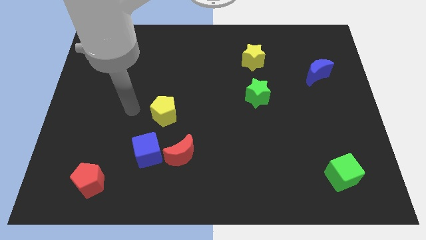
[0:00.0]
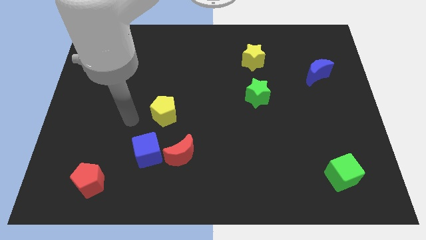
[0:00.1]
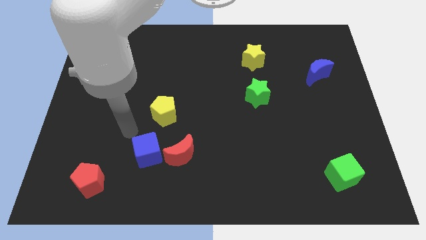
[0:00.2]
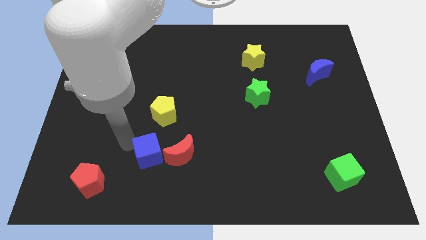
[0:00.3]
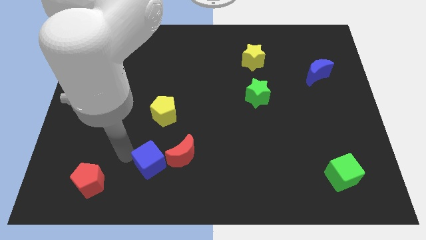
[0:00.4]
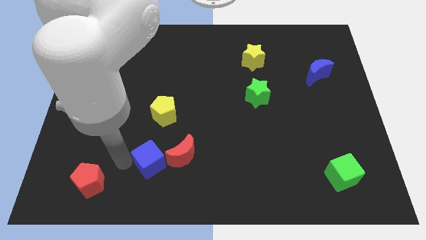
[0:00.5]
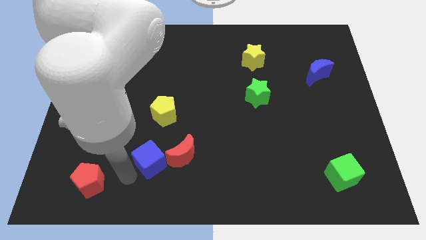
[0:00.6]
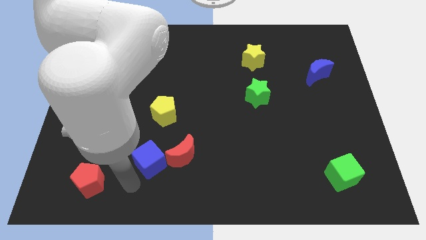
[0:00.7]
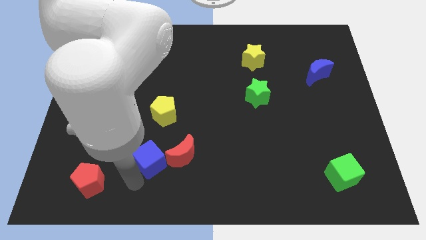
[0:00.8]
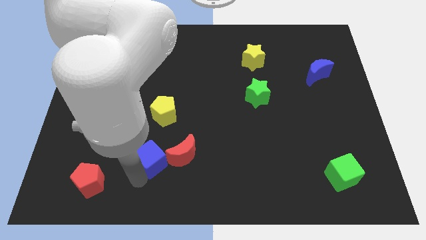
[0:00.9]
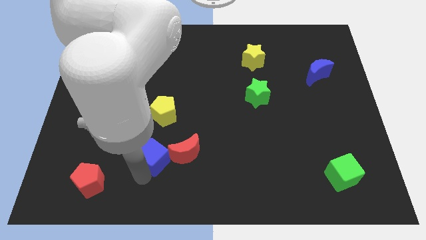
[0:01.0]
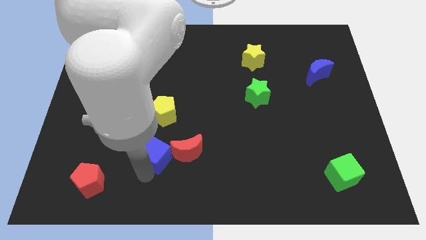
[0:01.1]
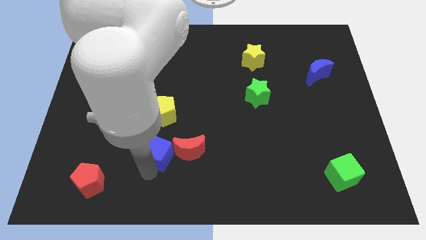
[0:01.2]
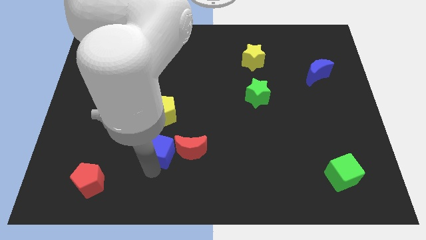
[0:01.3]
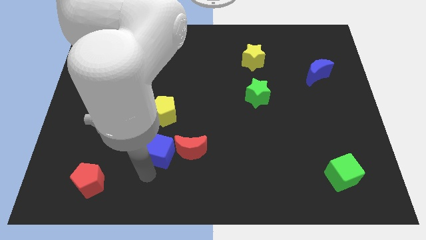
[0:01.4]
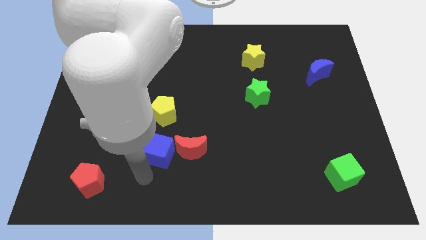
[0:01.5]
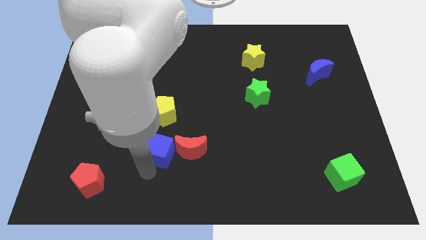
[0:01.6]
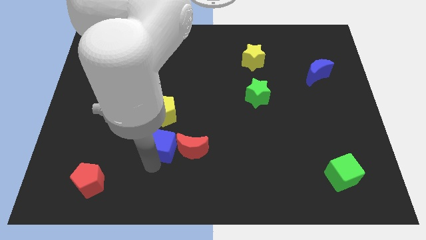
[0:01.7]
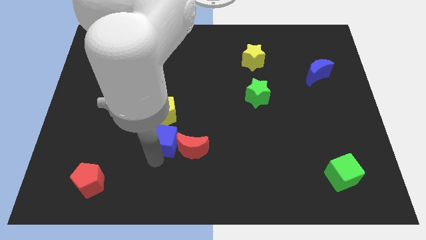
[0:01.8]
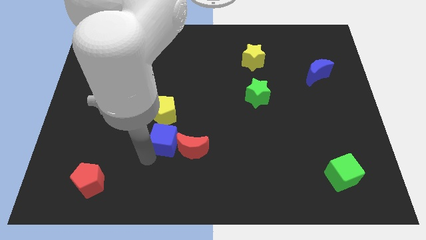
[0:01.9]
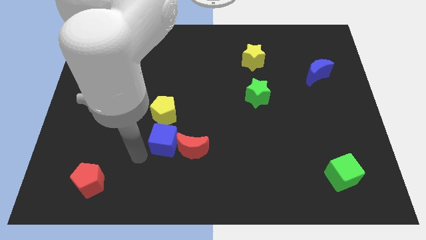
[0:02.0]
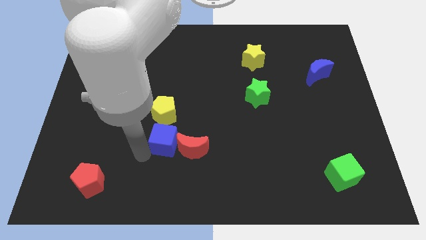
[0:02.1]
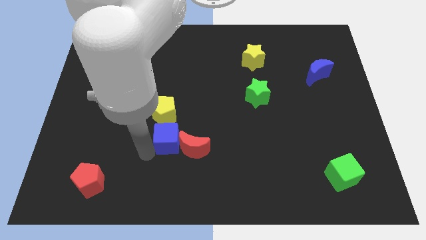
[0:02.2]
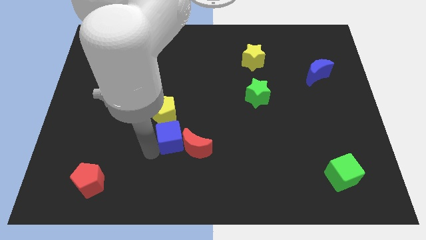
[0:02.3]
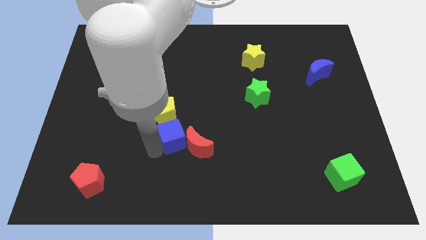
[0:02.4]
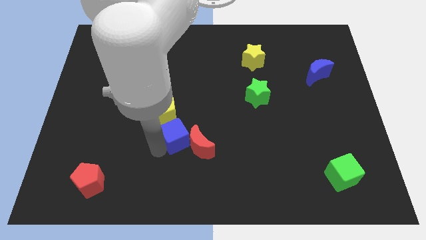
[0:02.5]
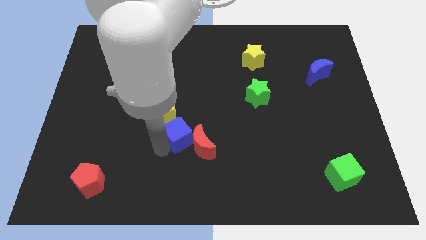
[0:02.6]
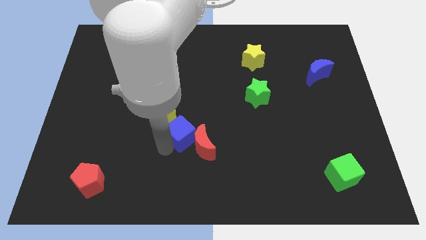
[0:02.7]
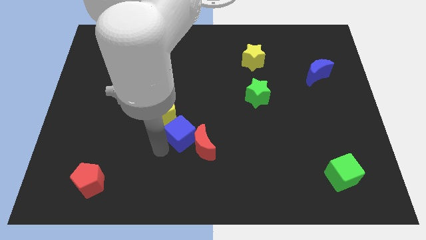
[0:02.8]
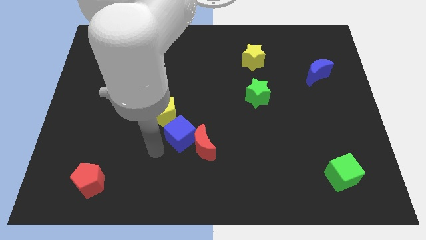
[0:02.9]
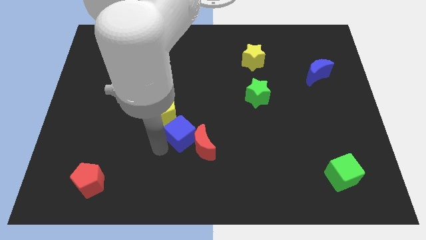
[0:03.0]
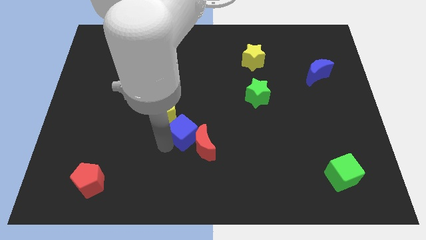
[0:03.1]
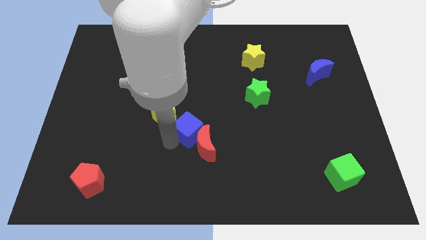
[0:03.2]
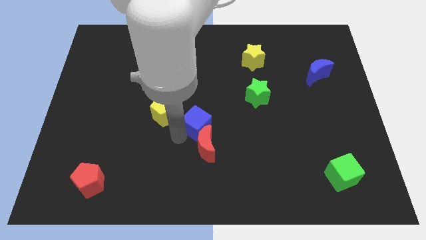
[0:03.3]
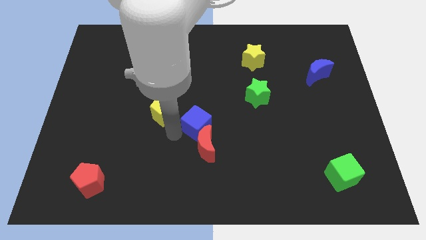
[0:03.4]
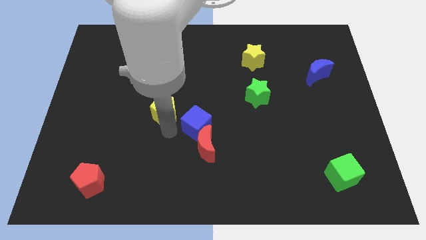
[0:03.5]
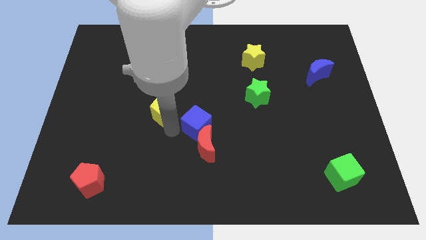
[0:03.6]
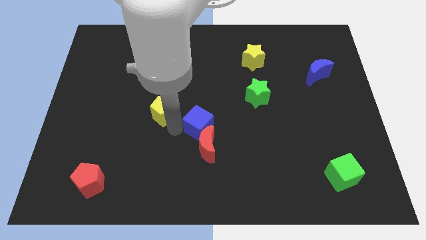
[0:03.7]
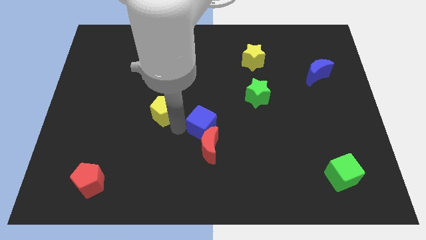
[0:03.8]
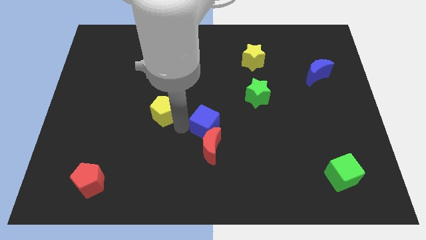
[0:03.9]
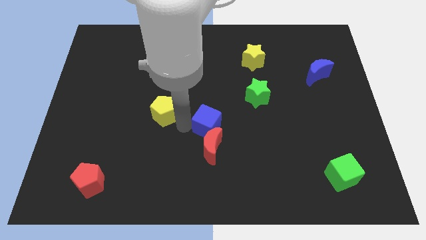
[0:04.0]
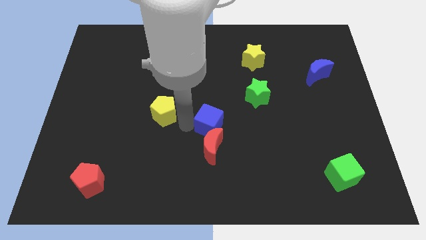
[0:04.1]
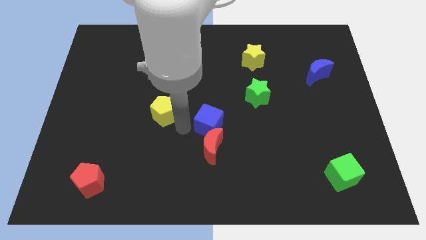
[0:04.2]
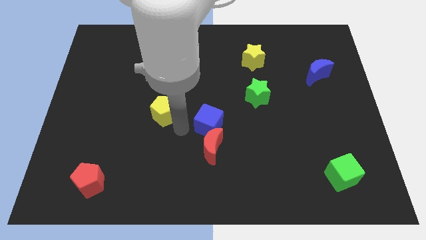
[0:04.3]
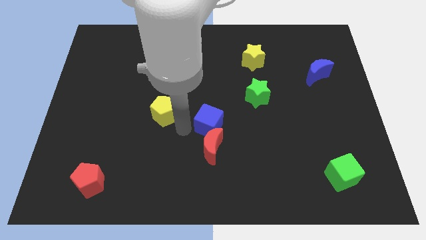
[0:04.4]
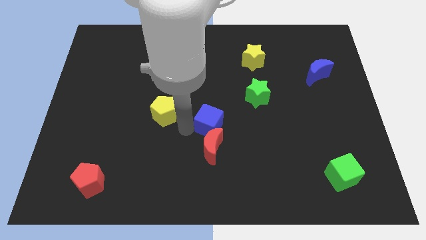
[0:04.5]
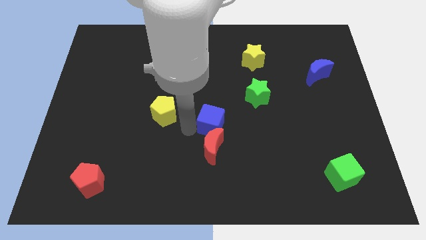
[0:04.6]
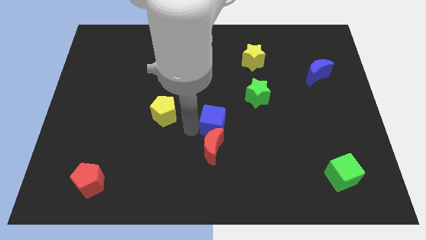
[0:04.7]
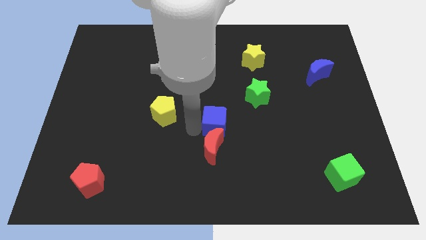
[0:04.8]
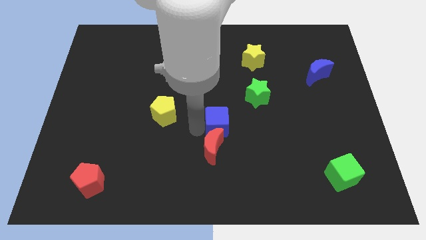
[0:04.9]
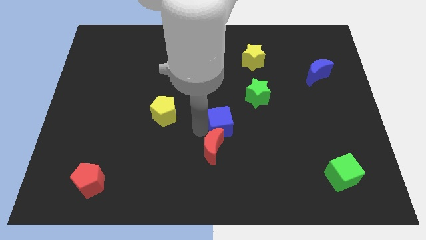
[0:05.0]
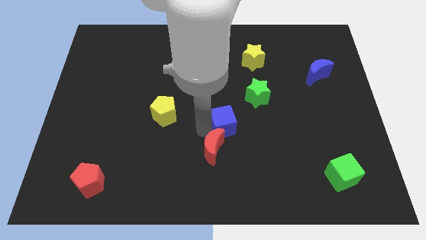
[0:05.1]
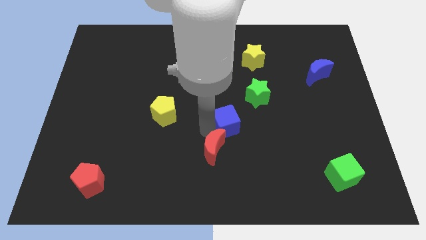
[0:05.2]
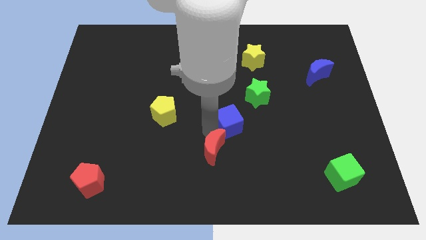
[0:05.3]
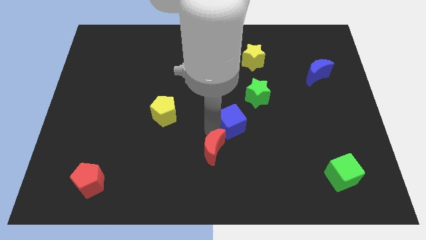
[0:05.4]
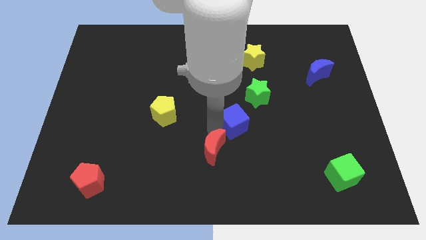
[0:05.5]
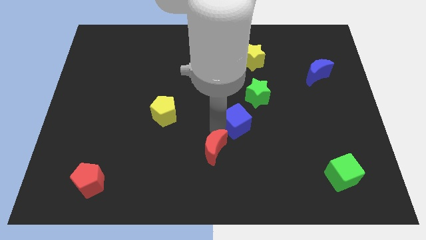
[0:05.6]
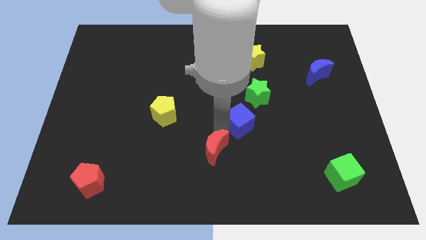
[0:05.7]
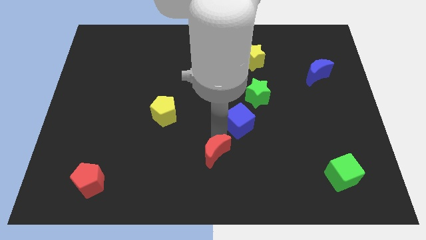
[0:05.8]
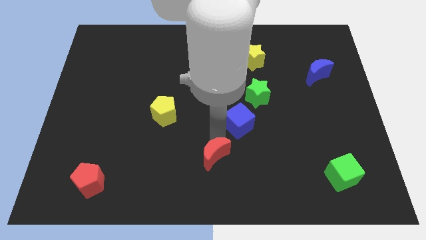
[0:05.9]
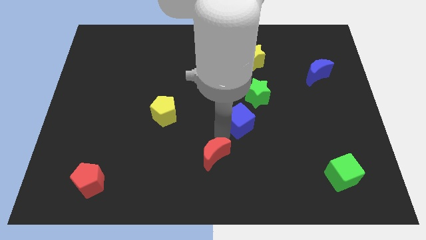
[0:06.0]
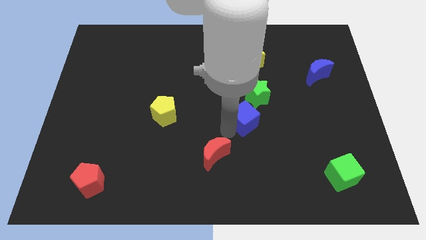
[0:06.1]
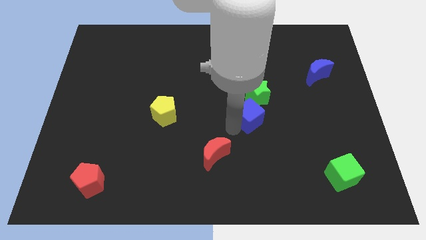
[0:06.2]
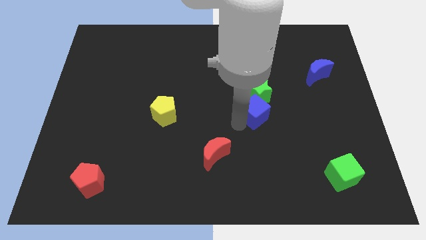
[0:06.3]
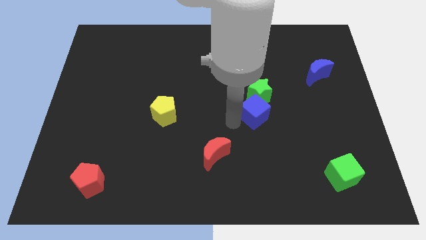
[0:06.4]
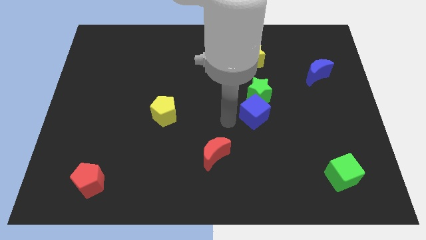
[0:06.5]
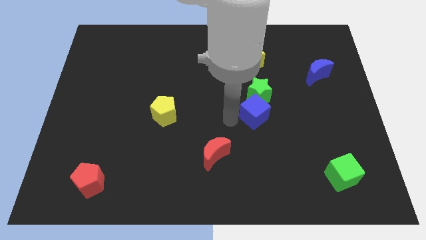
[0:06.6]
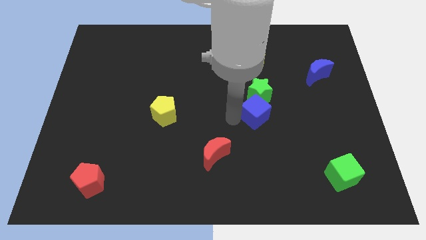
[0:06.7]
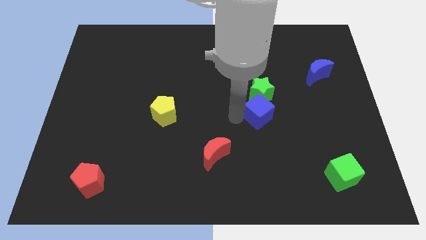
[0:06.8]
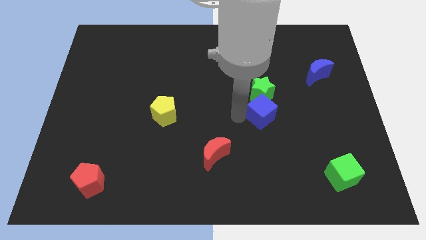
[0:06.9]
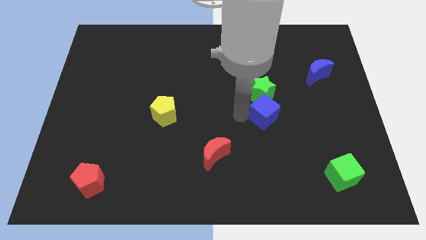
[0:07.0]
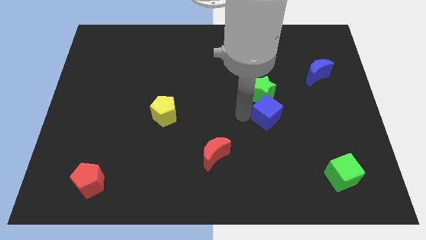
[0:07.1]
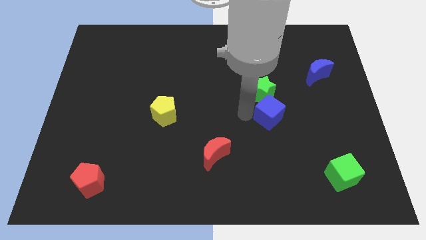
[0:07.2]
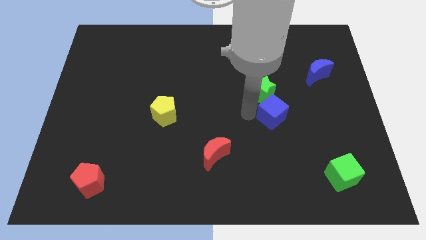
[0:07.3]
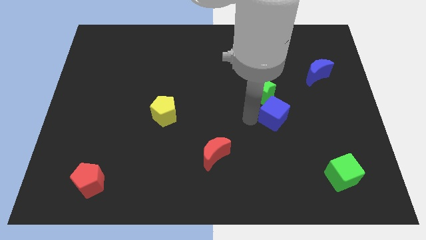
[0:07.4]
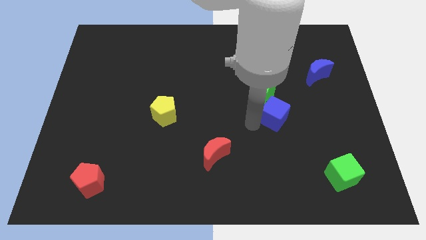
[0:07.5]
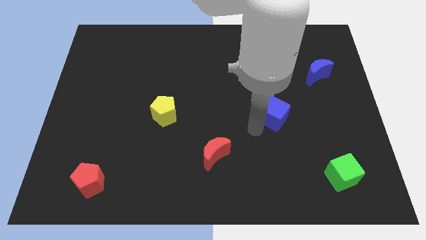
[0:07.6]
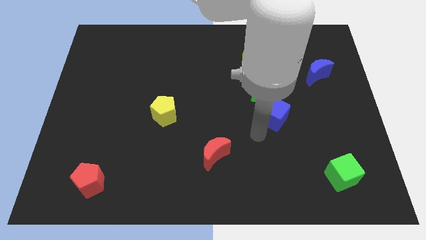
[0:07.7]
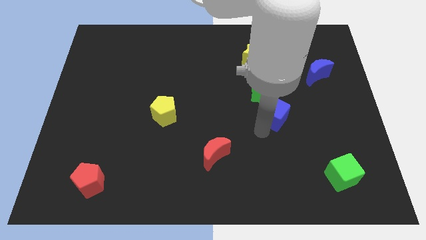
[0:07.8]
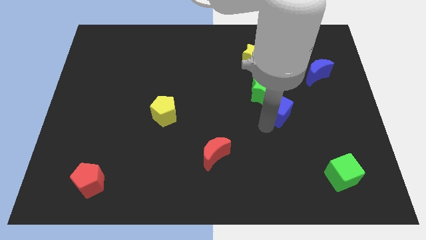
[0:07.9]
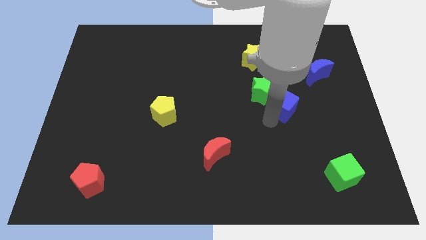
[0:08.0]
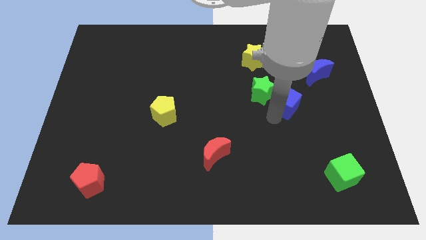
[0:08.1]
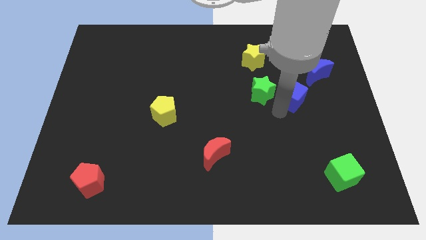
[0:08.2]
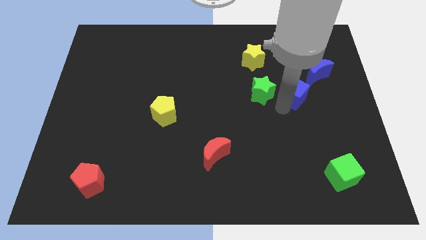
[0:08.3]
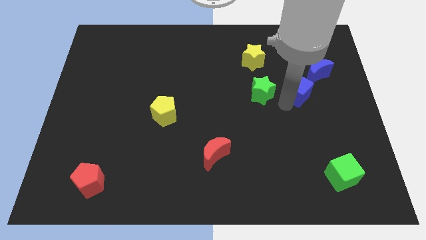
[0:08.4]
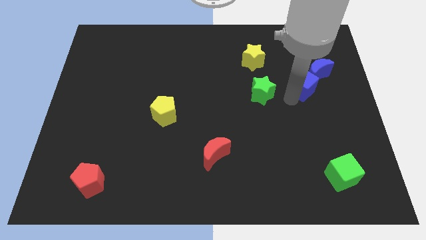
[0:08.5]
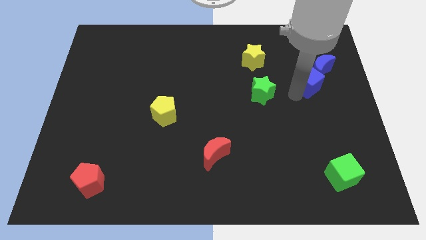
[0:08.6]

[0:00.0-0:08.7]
slide the blue cube next to the blue moon
